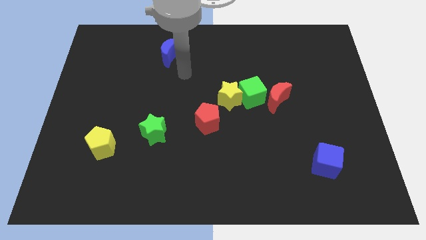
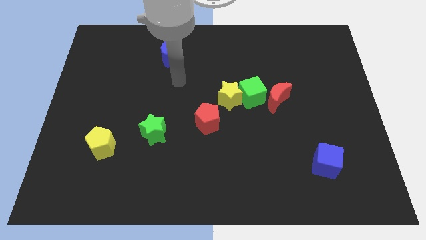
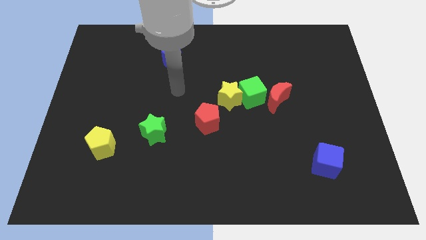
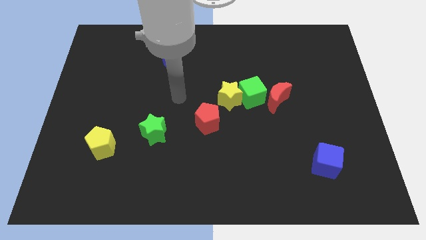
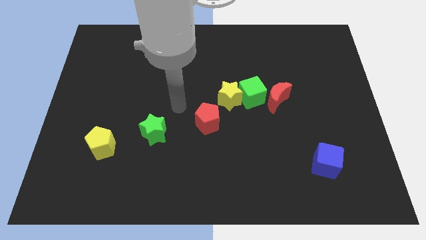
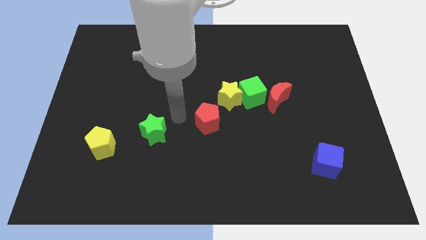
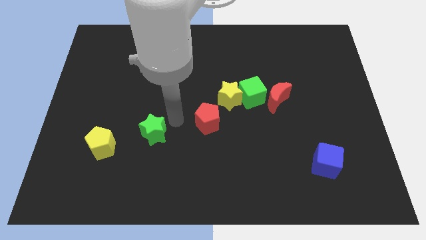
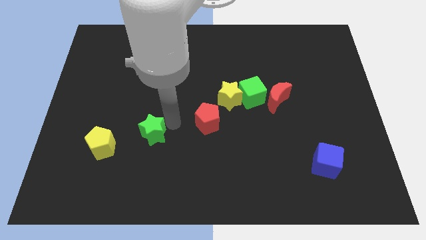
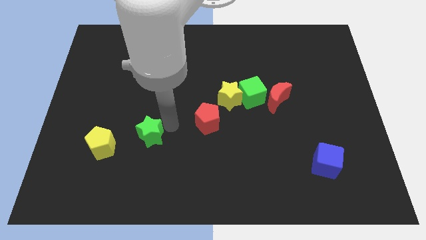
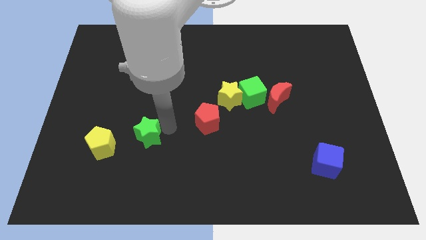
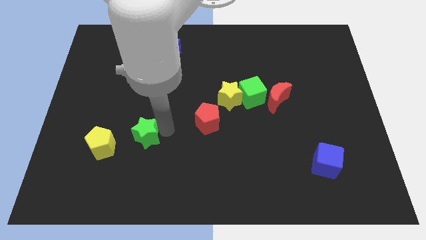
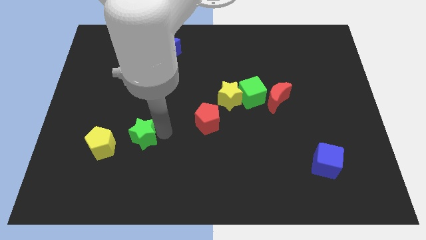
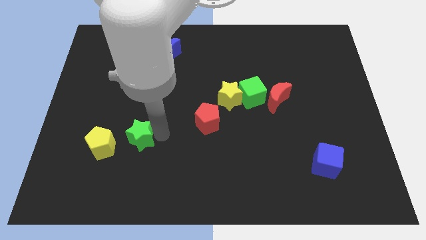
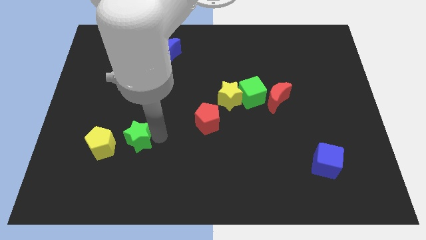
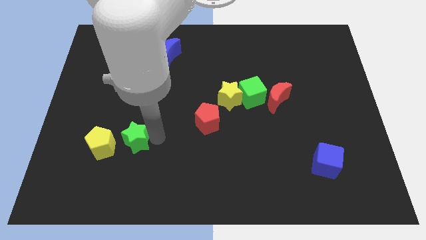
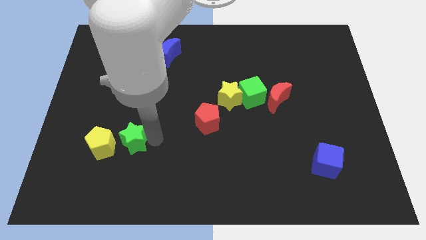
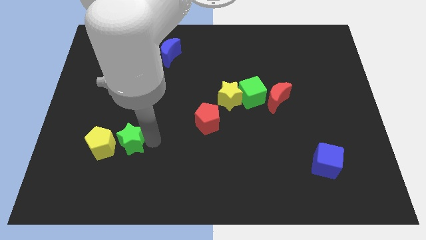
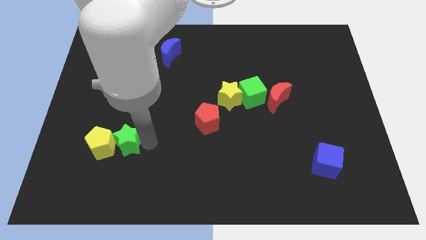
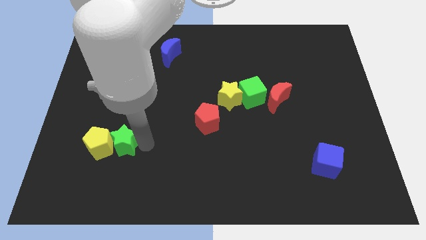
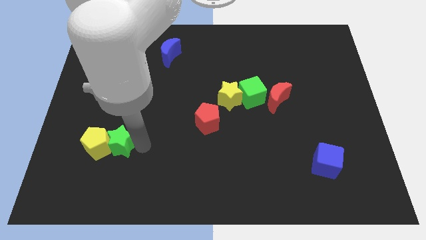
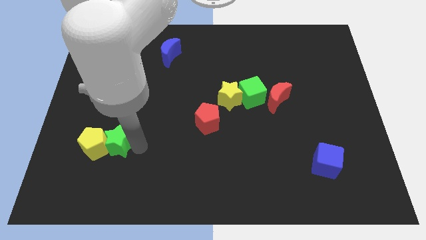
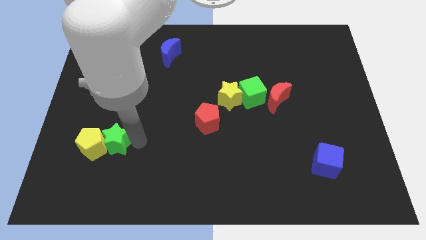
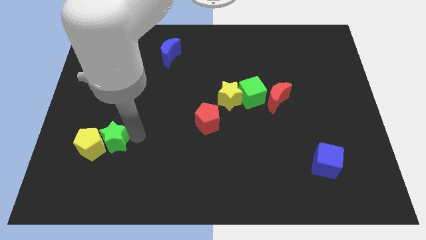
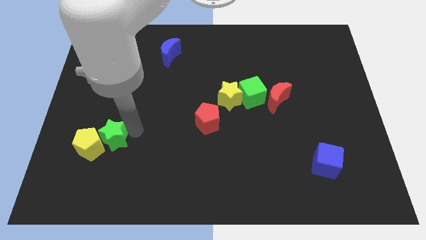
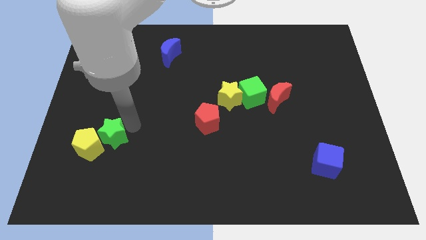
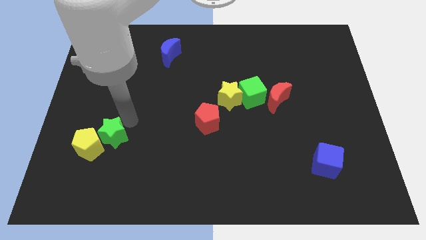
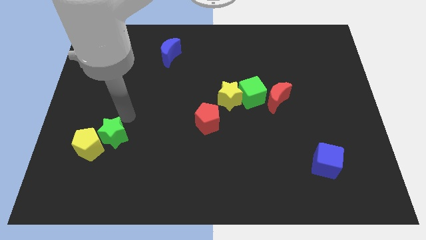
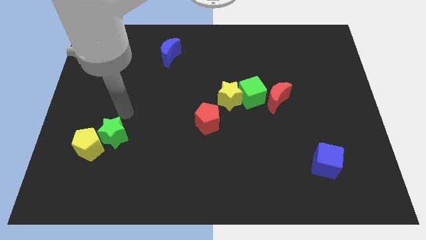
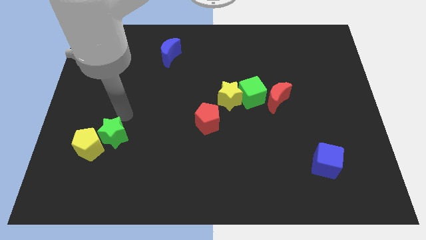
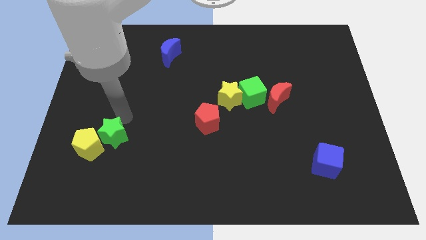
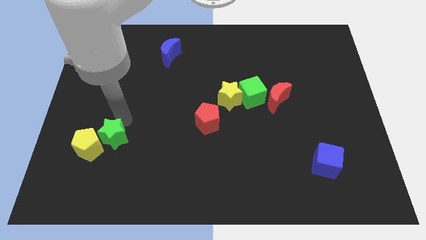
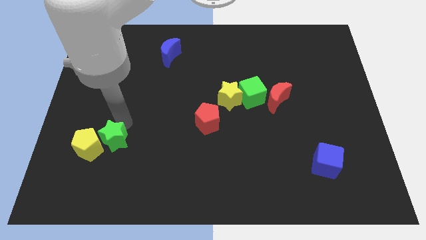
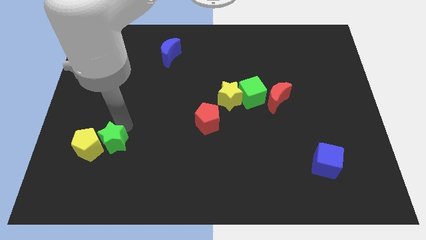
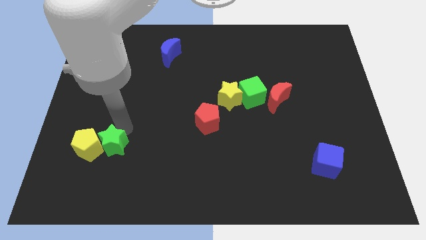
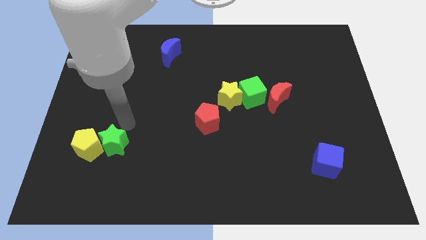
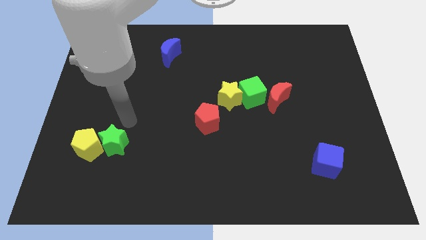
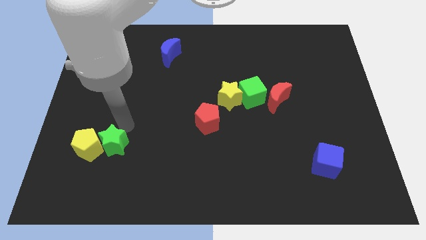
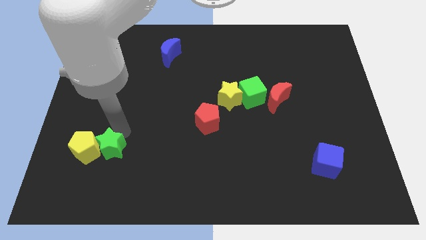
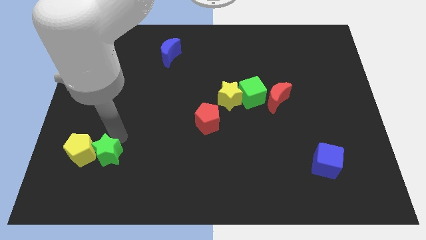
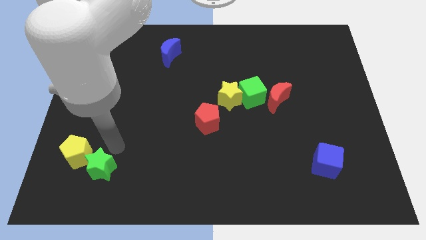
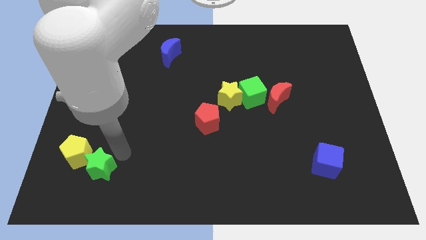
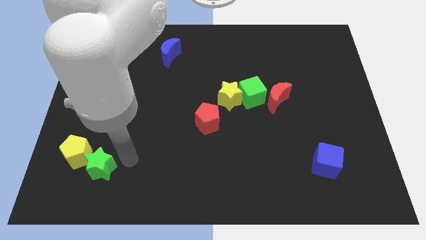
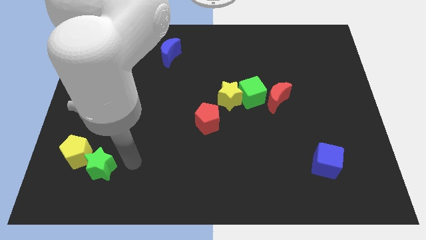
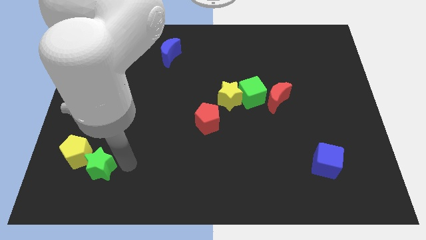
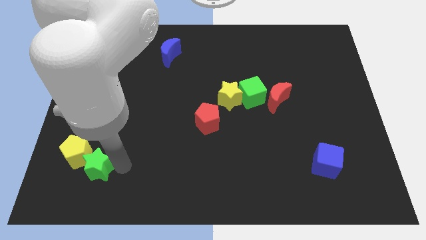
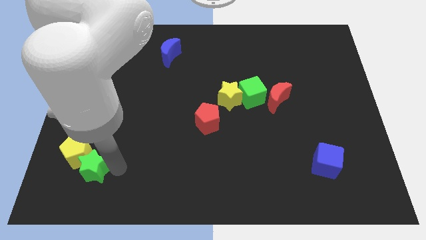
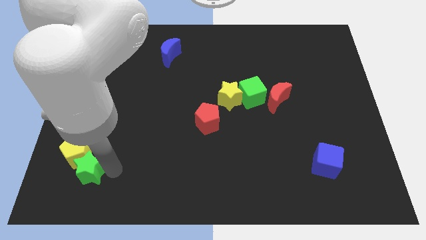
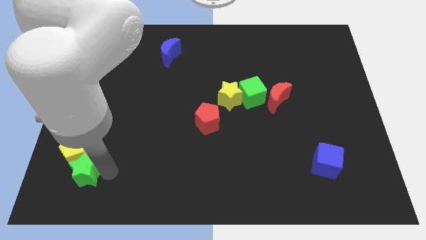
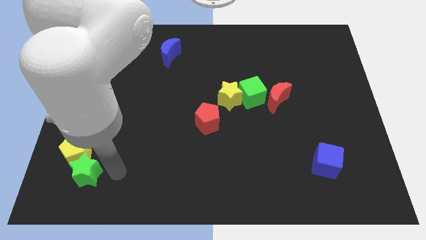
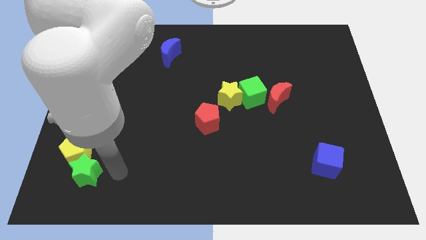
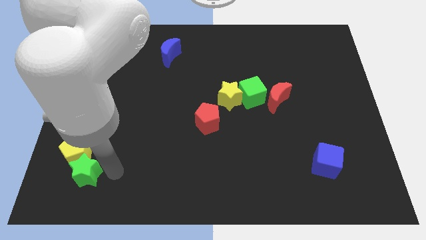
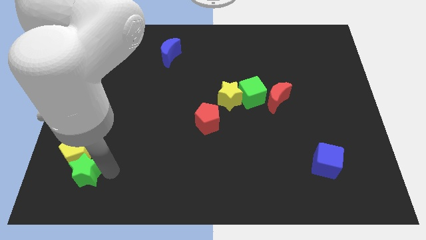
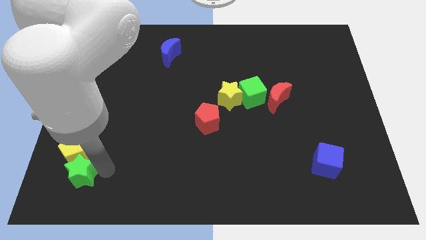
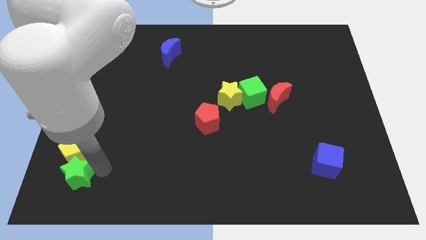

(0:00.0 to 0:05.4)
put the green star to the bottom left of the yellow pentagon

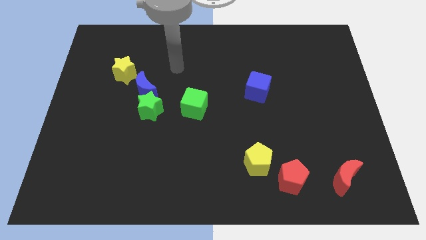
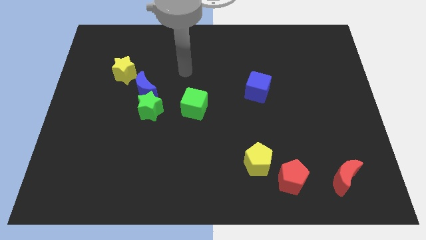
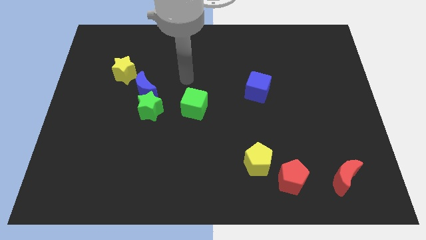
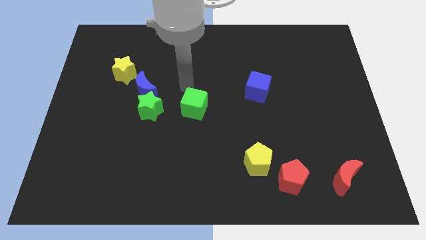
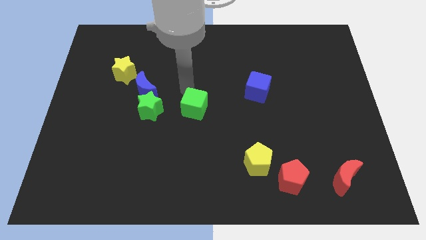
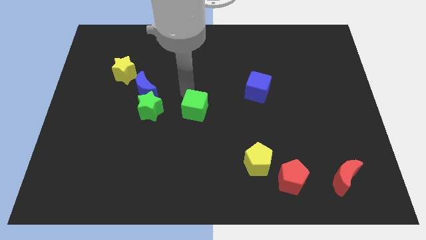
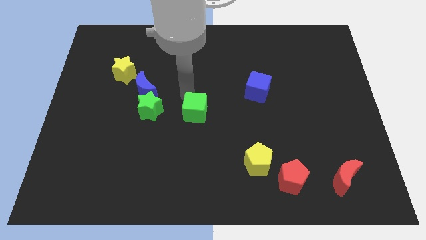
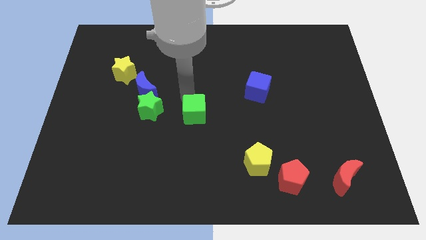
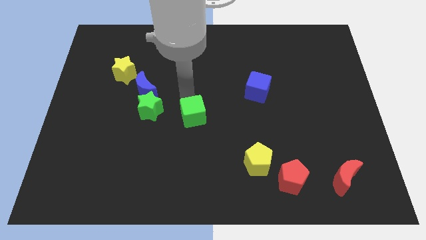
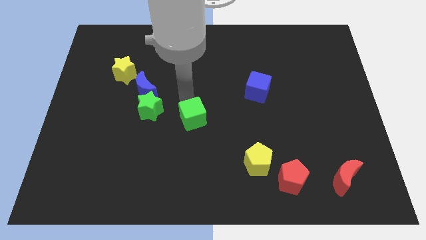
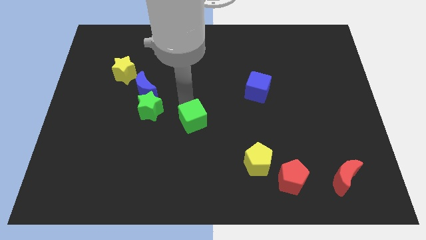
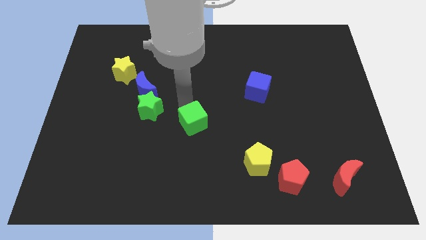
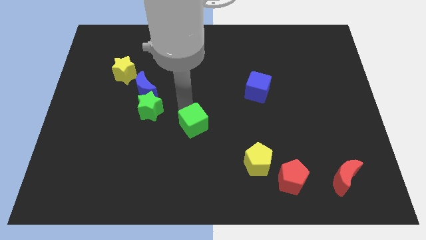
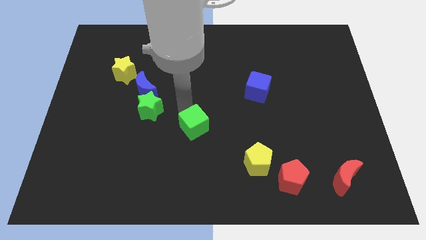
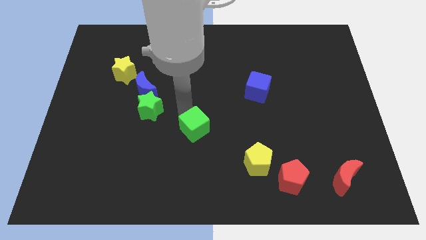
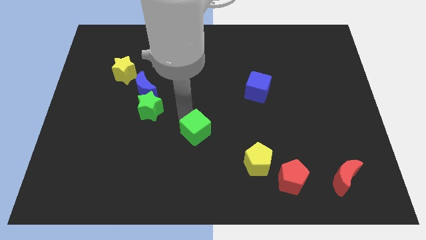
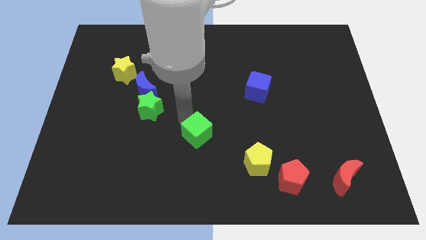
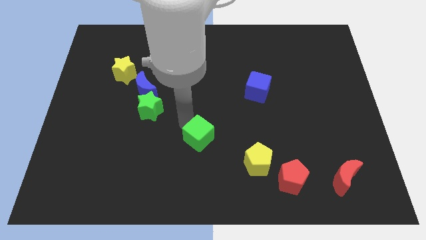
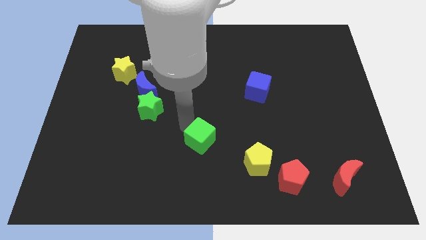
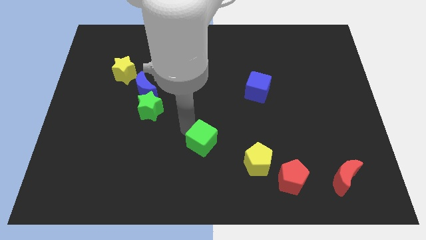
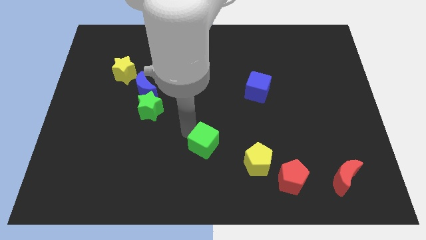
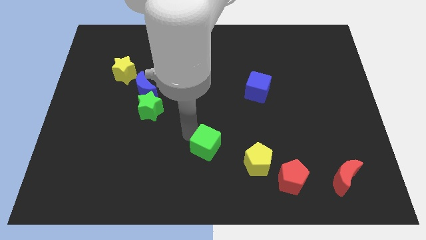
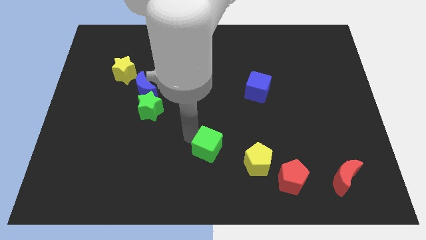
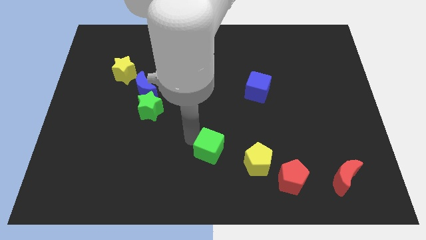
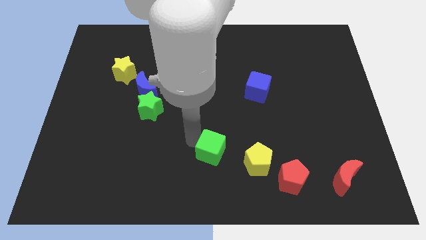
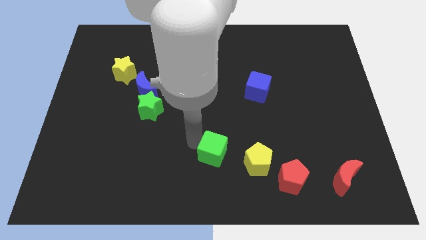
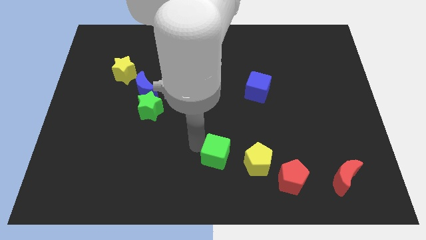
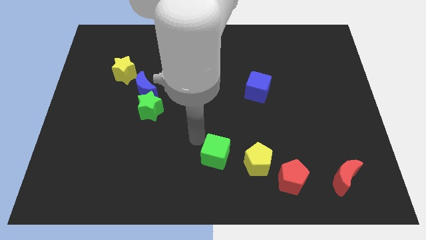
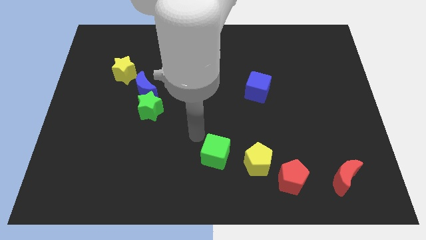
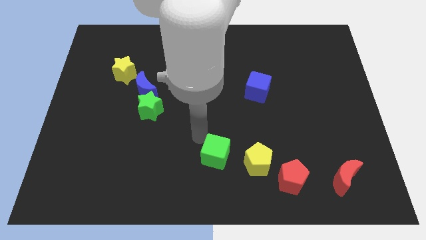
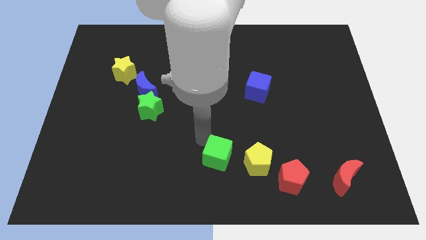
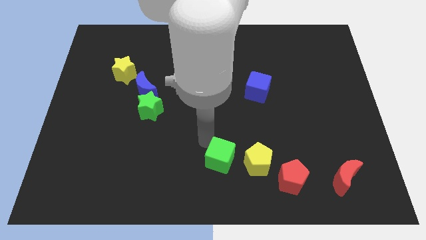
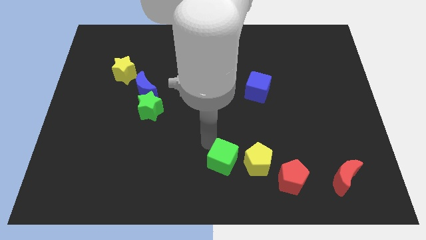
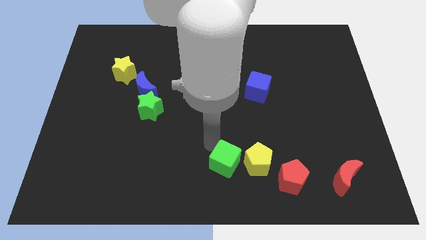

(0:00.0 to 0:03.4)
move the green cube just left of the red pentagon
